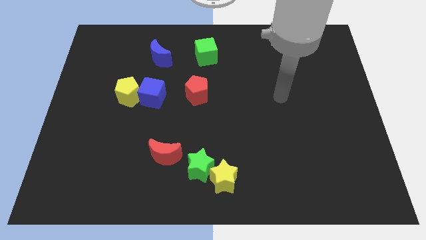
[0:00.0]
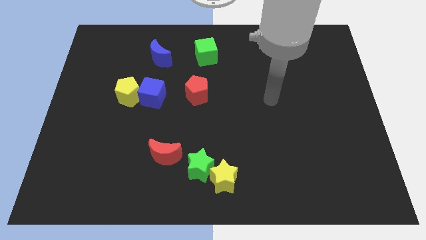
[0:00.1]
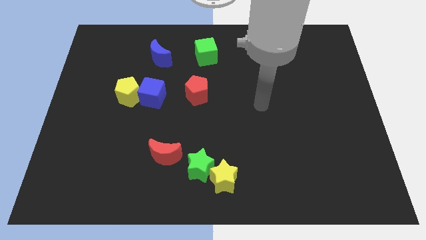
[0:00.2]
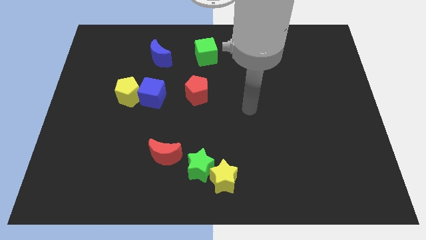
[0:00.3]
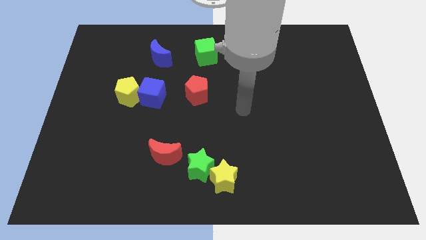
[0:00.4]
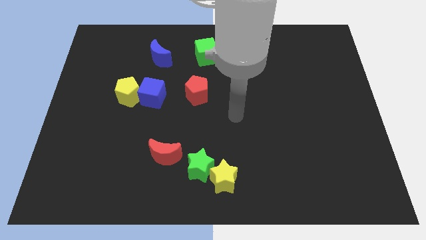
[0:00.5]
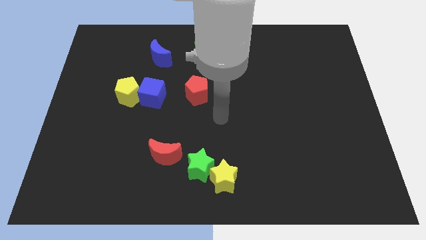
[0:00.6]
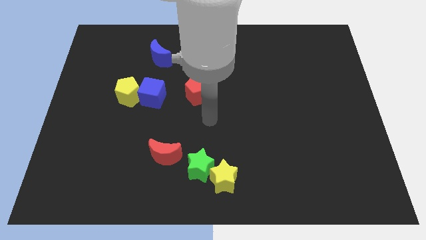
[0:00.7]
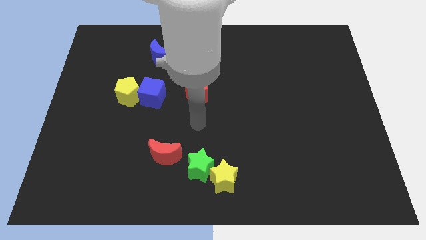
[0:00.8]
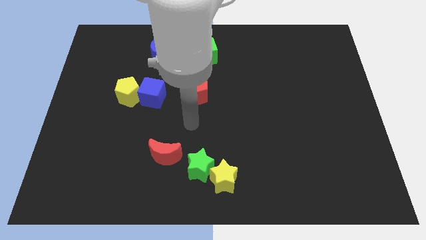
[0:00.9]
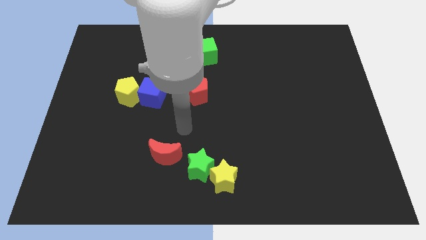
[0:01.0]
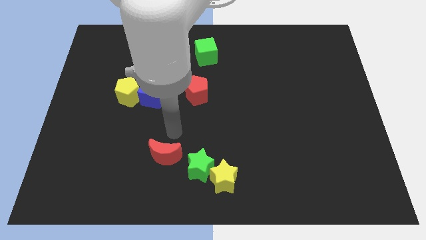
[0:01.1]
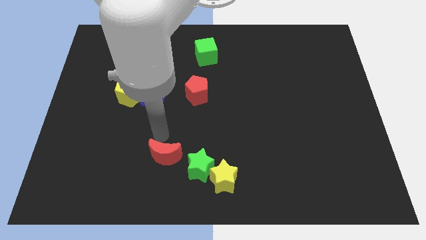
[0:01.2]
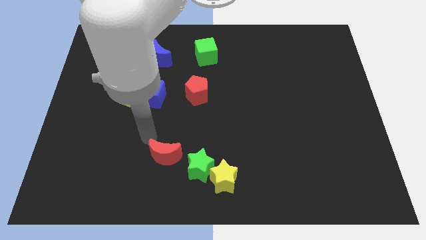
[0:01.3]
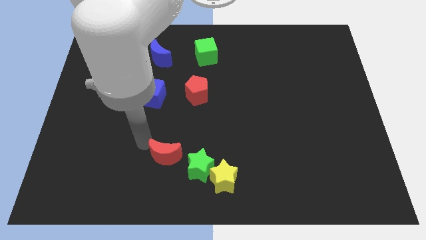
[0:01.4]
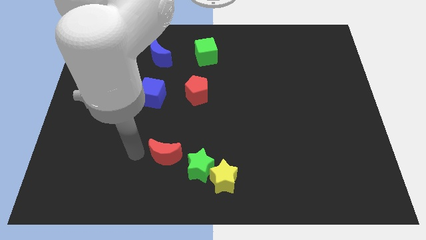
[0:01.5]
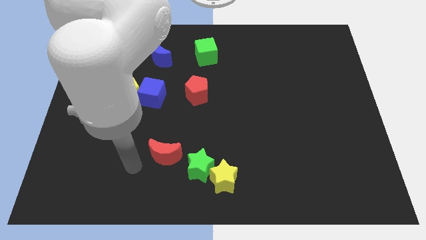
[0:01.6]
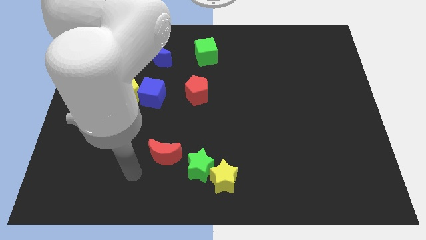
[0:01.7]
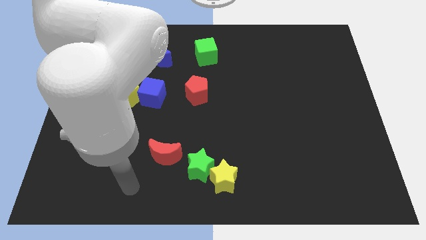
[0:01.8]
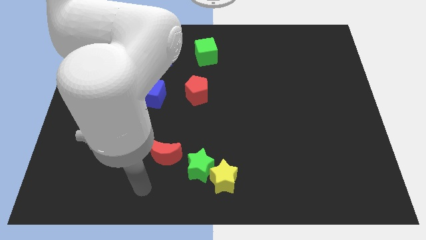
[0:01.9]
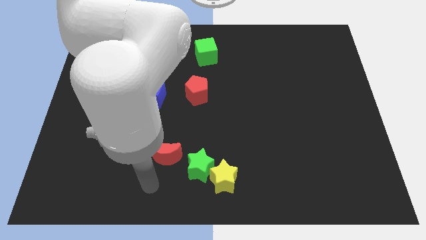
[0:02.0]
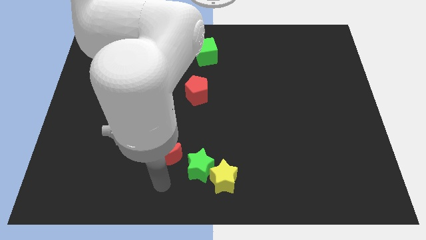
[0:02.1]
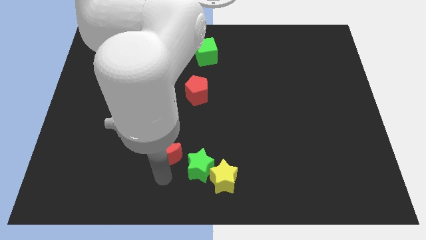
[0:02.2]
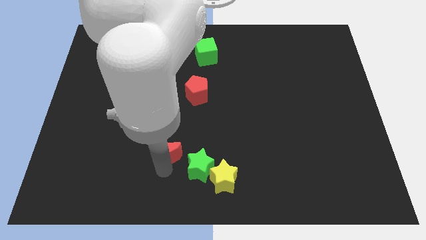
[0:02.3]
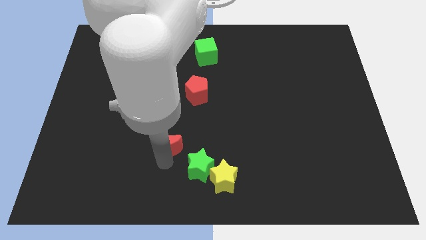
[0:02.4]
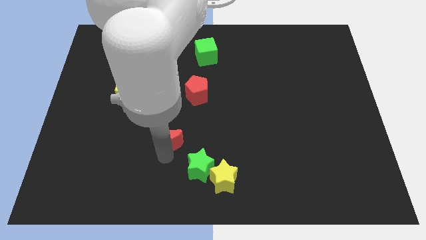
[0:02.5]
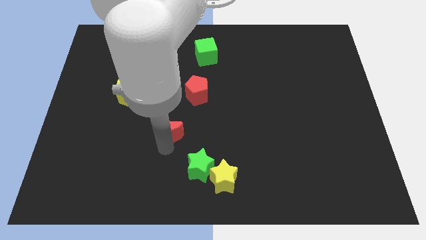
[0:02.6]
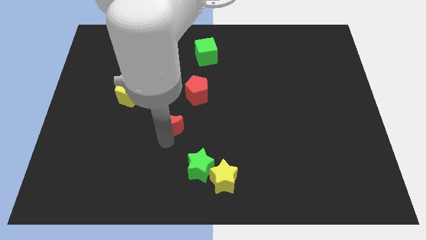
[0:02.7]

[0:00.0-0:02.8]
slightly move the red moon up

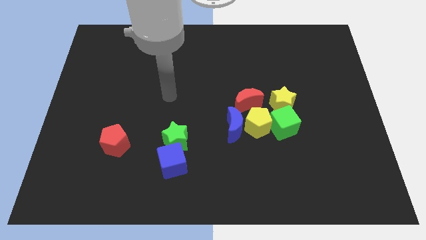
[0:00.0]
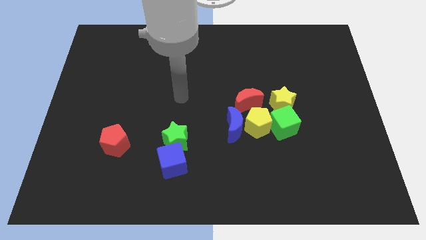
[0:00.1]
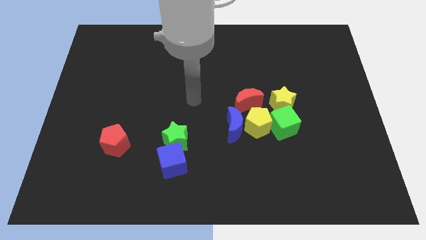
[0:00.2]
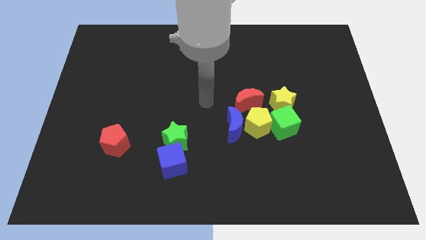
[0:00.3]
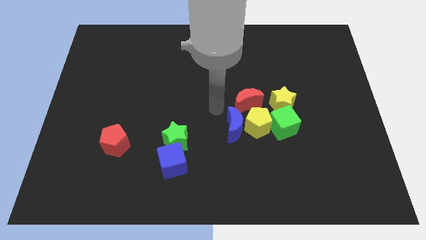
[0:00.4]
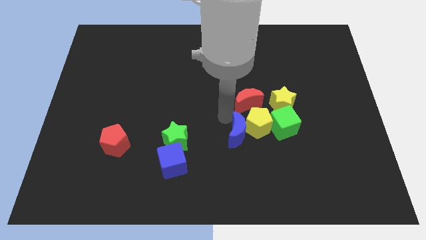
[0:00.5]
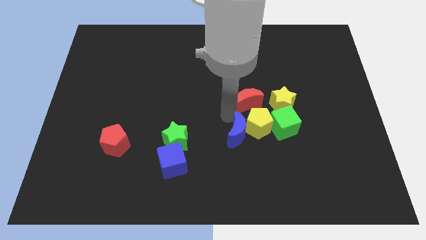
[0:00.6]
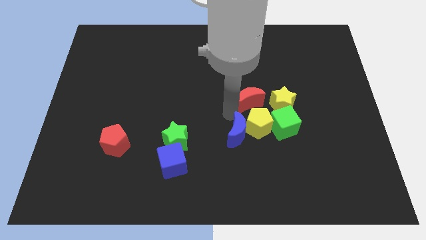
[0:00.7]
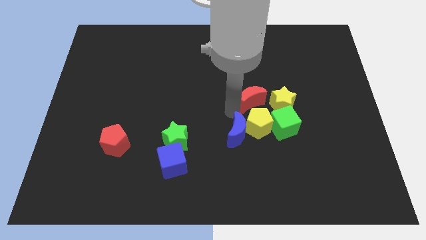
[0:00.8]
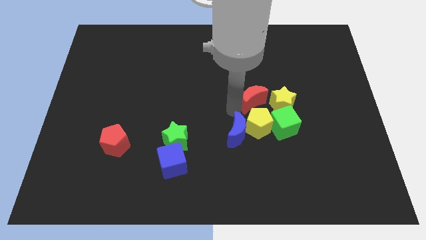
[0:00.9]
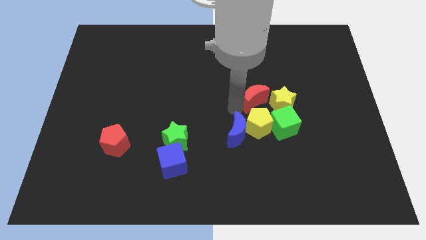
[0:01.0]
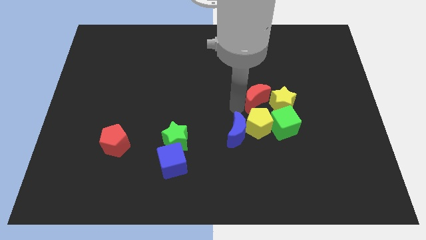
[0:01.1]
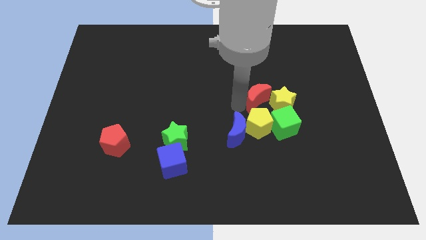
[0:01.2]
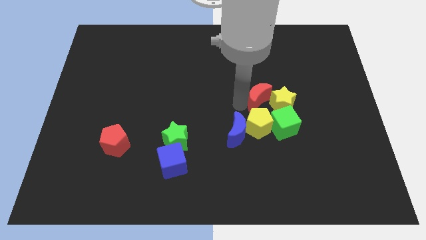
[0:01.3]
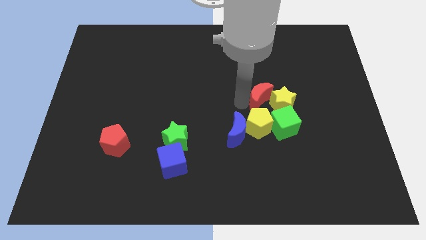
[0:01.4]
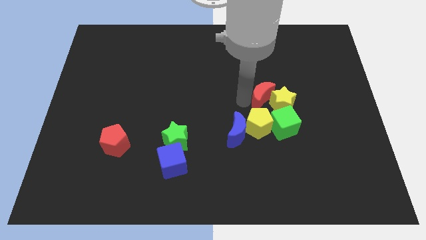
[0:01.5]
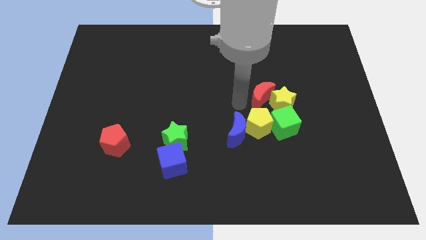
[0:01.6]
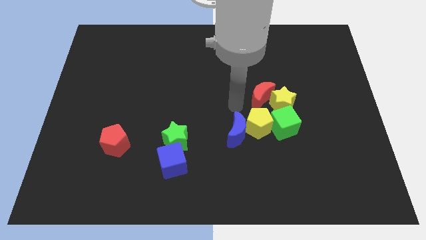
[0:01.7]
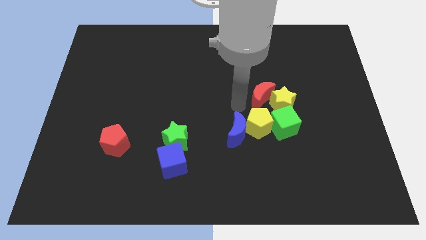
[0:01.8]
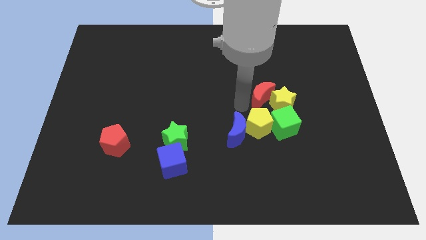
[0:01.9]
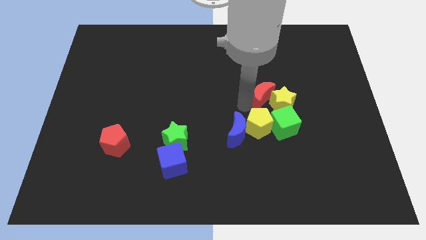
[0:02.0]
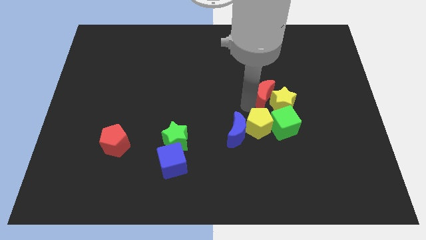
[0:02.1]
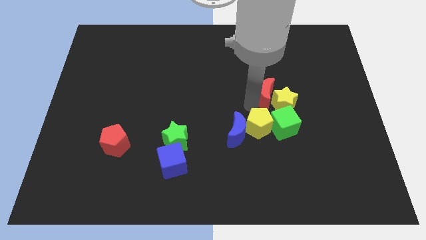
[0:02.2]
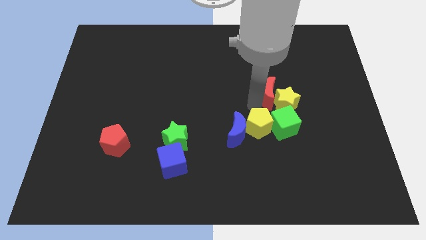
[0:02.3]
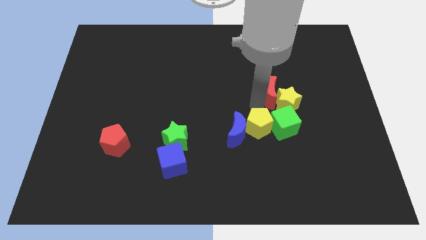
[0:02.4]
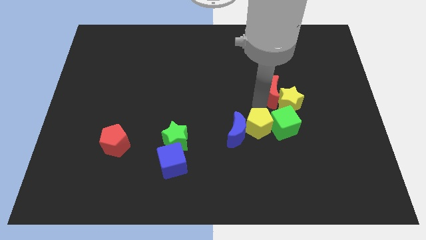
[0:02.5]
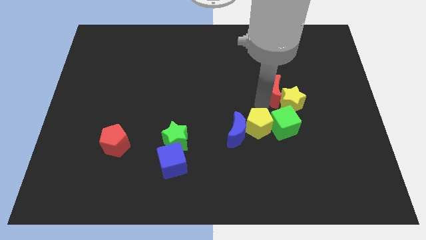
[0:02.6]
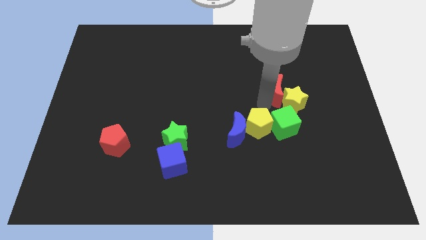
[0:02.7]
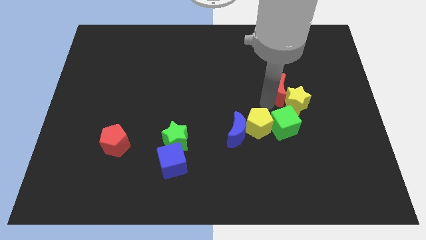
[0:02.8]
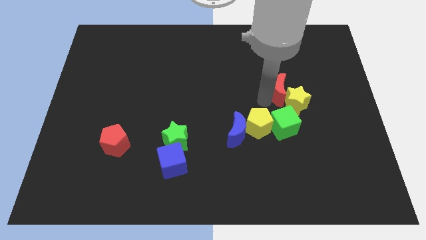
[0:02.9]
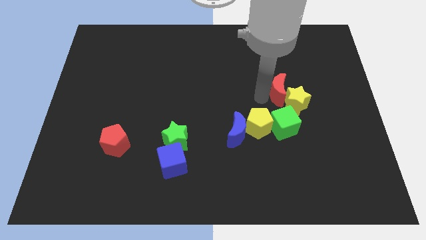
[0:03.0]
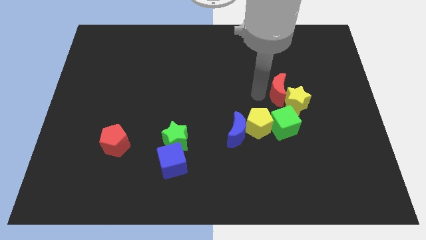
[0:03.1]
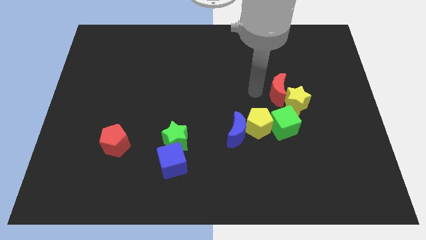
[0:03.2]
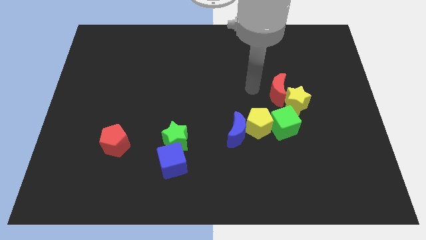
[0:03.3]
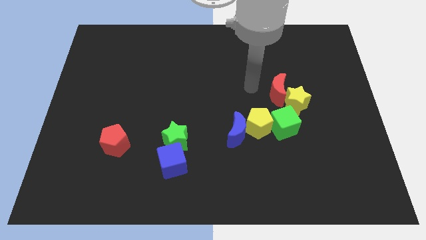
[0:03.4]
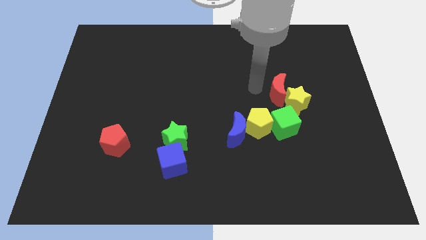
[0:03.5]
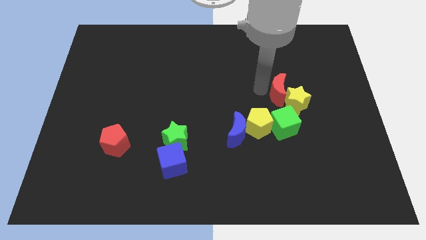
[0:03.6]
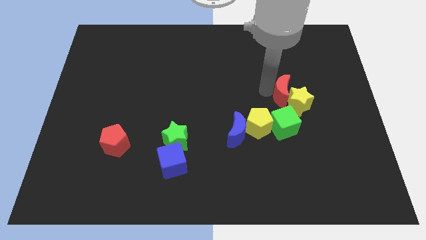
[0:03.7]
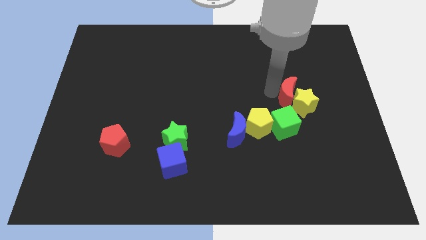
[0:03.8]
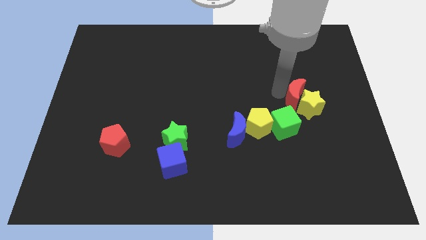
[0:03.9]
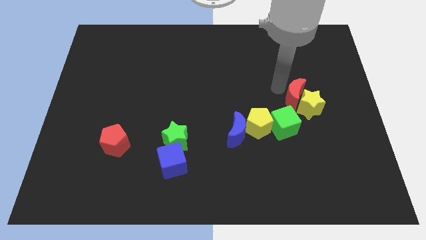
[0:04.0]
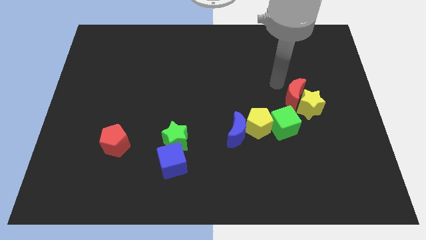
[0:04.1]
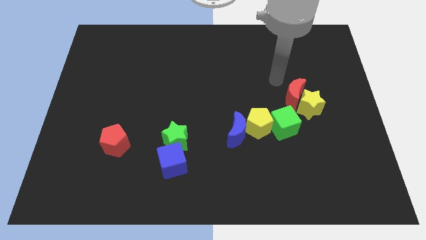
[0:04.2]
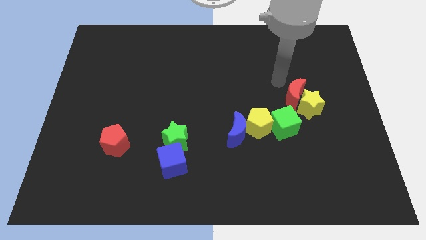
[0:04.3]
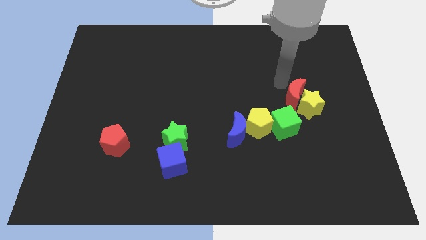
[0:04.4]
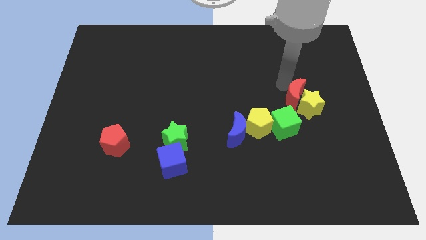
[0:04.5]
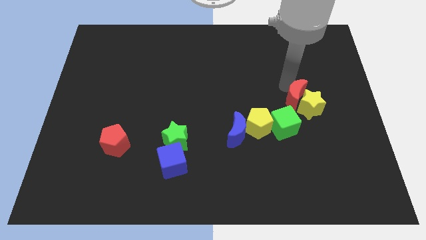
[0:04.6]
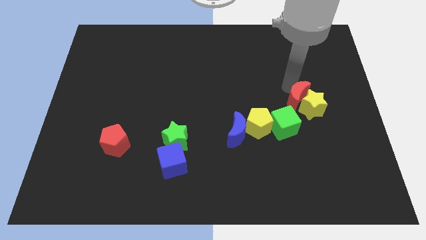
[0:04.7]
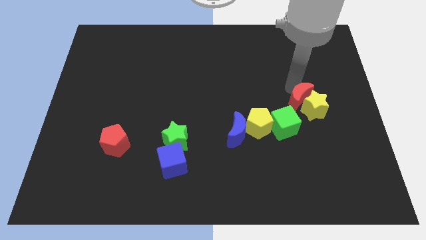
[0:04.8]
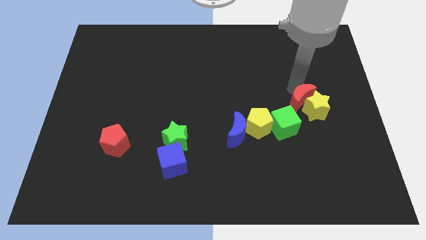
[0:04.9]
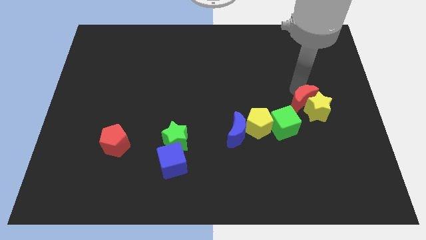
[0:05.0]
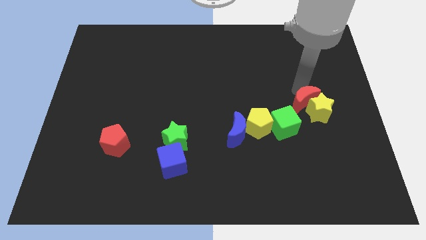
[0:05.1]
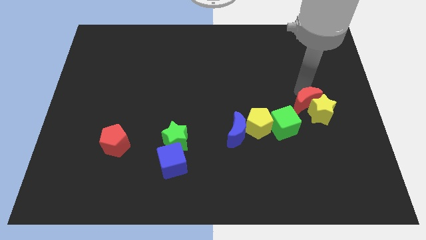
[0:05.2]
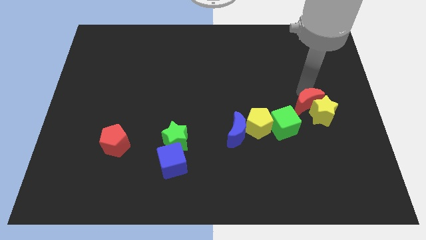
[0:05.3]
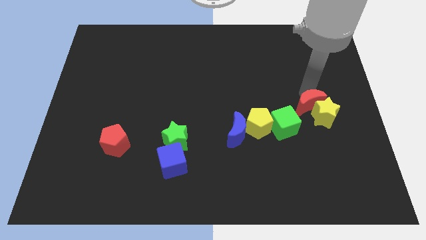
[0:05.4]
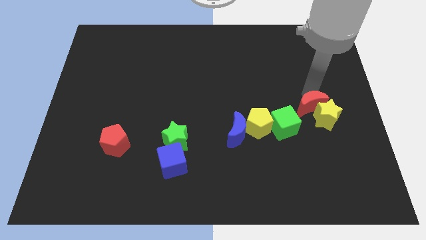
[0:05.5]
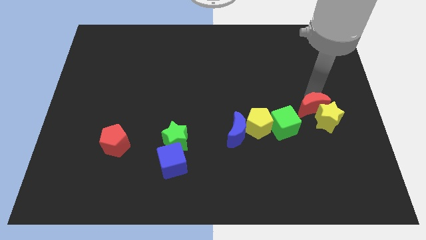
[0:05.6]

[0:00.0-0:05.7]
slide the red moon downwards and right a little
